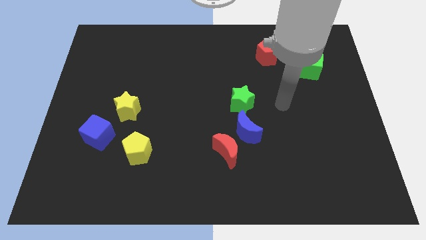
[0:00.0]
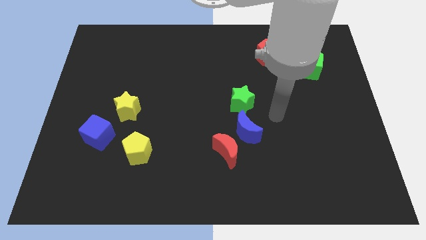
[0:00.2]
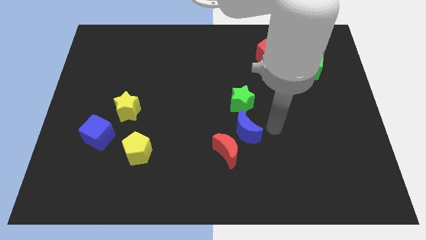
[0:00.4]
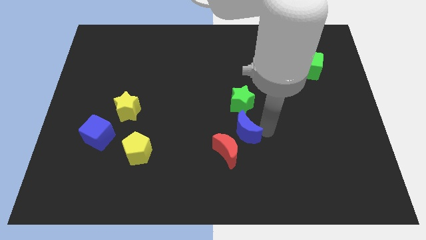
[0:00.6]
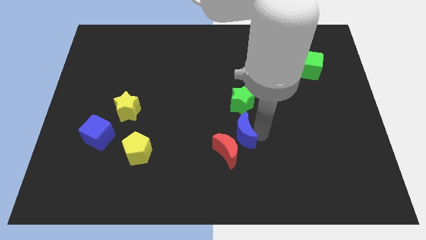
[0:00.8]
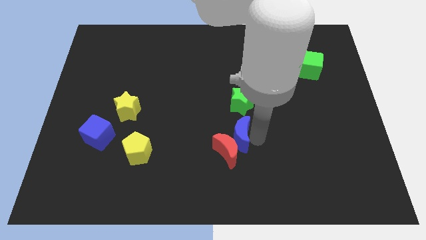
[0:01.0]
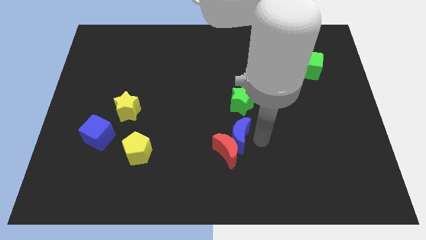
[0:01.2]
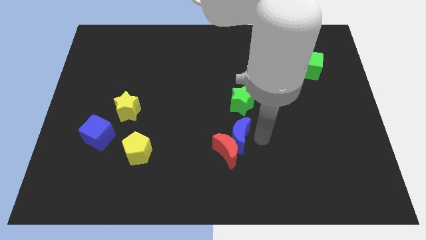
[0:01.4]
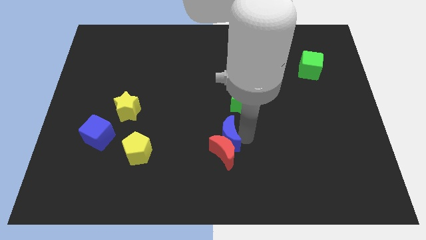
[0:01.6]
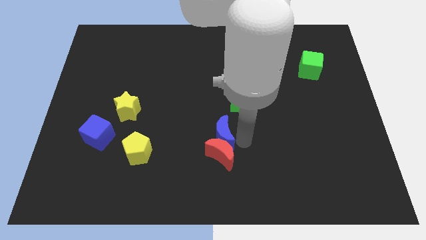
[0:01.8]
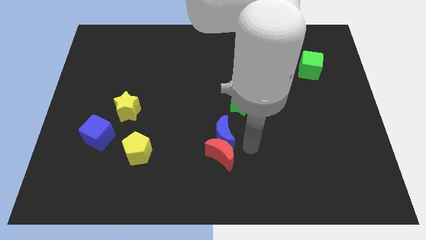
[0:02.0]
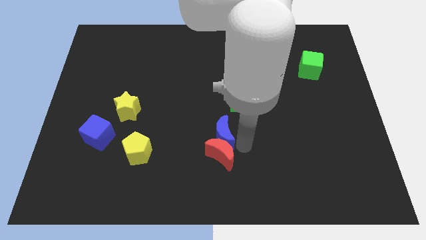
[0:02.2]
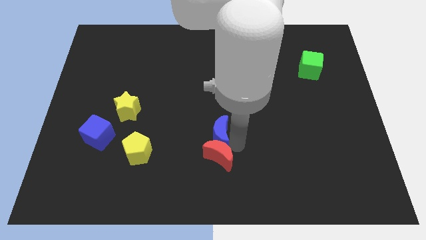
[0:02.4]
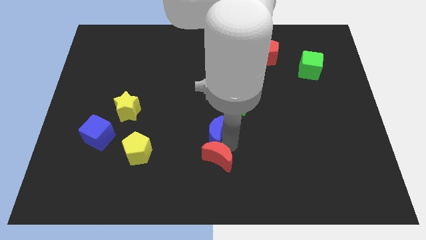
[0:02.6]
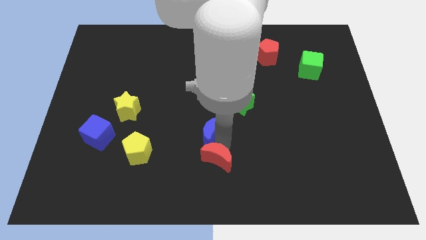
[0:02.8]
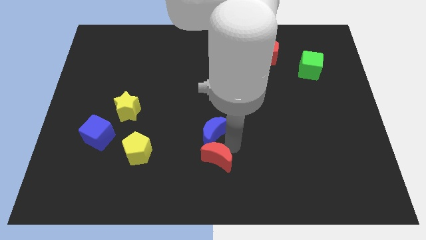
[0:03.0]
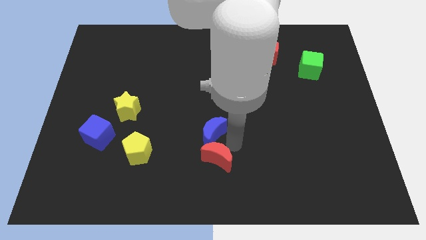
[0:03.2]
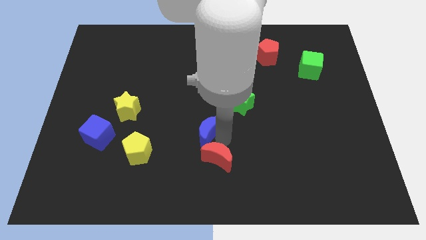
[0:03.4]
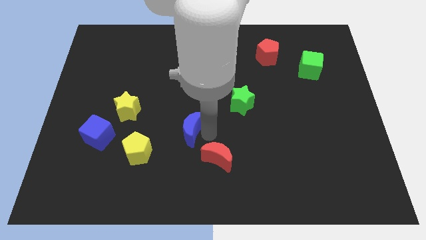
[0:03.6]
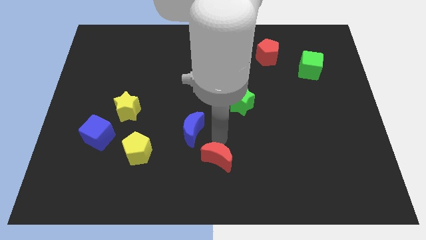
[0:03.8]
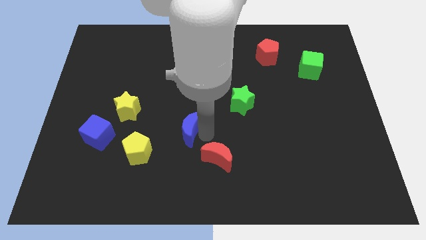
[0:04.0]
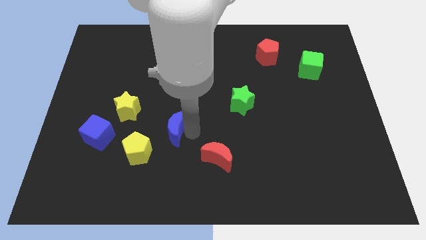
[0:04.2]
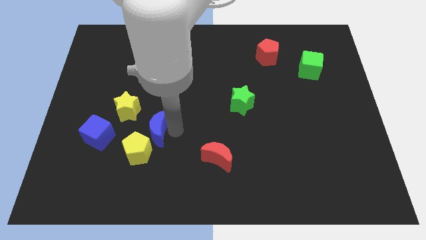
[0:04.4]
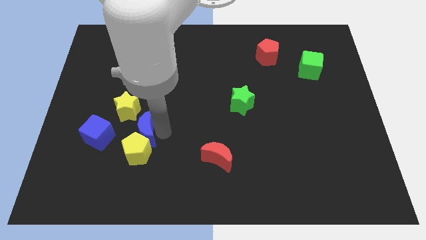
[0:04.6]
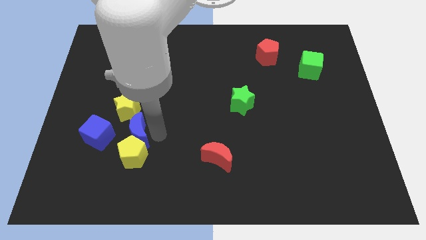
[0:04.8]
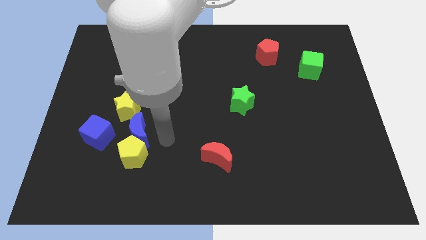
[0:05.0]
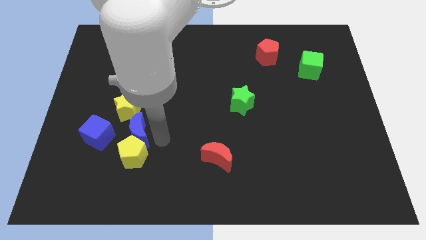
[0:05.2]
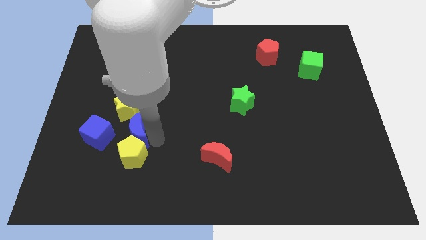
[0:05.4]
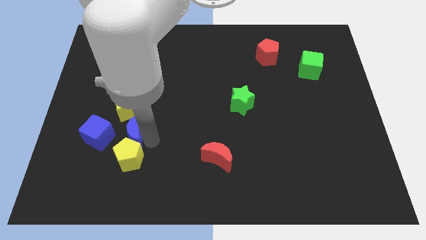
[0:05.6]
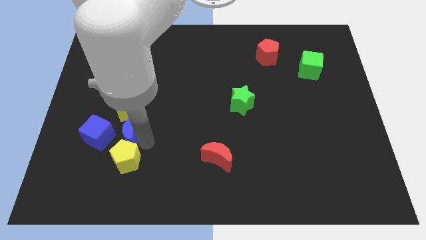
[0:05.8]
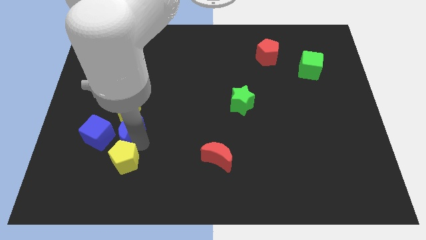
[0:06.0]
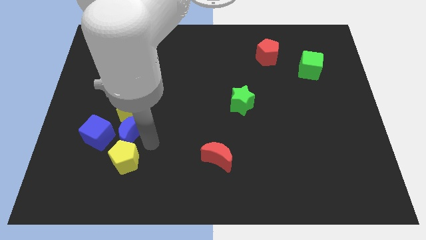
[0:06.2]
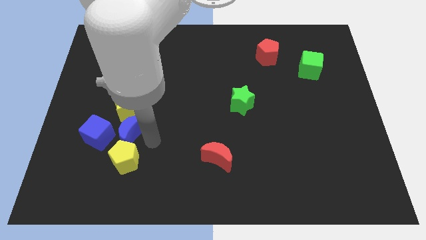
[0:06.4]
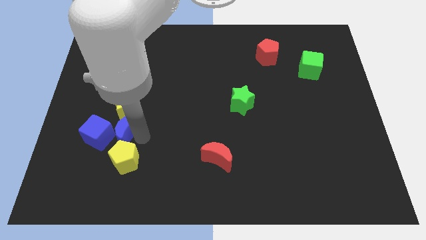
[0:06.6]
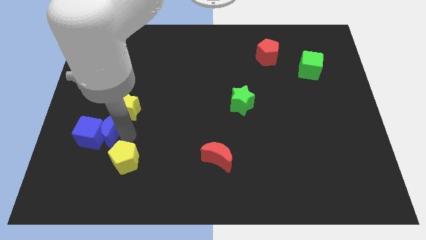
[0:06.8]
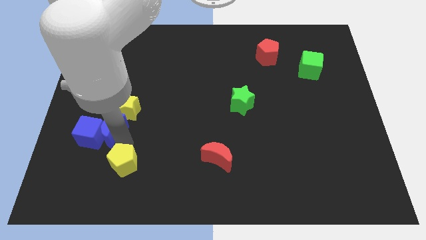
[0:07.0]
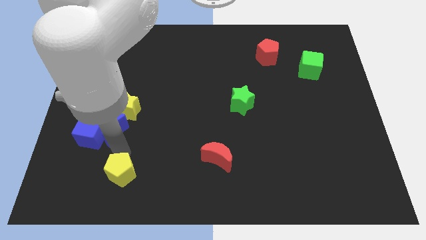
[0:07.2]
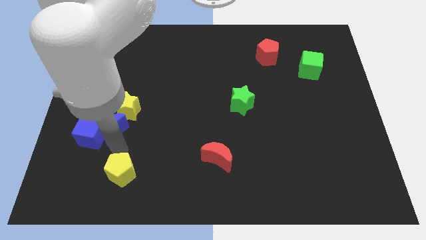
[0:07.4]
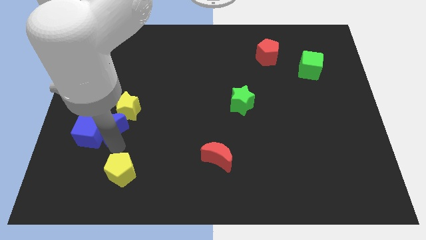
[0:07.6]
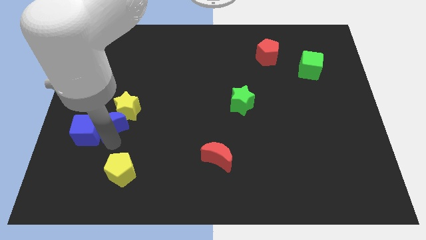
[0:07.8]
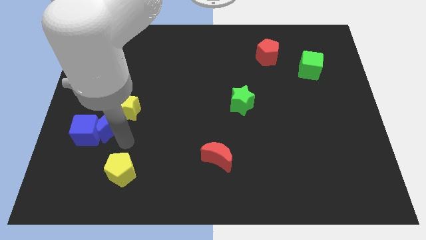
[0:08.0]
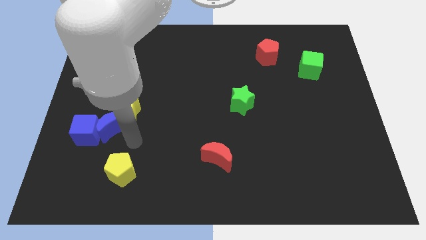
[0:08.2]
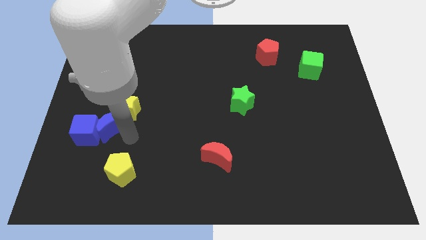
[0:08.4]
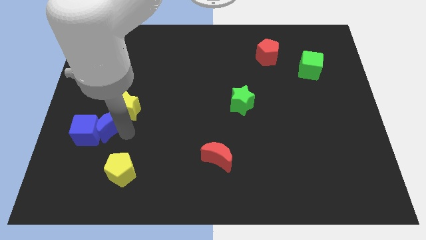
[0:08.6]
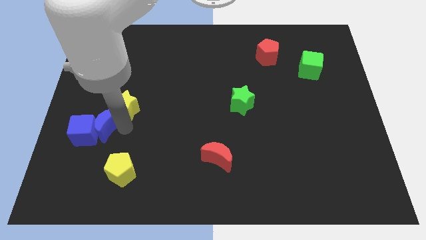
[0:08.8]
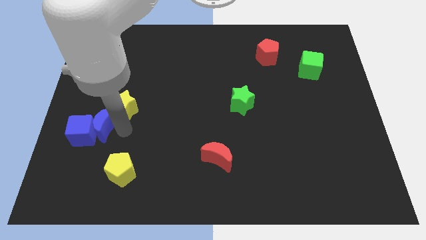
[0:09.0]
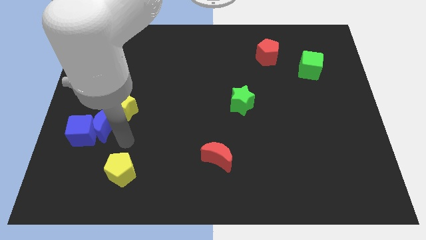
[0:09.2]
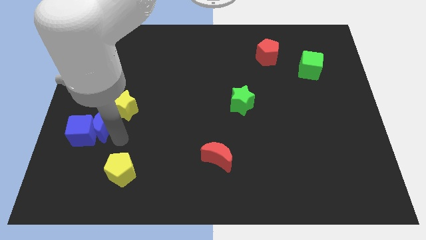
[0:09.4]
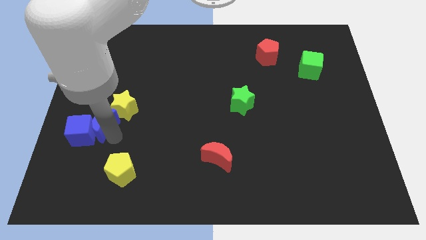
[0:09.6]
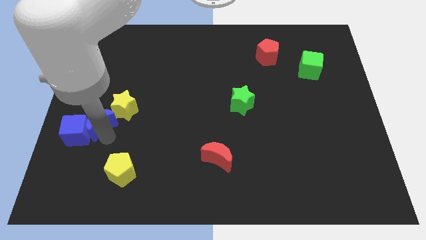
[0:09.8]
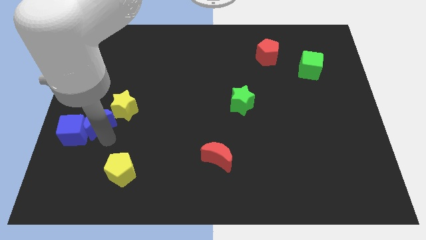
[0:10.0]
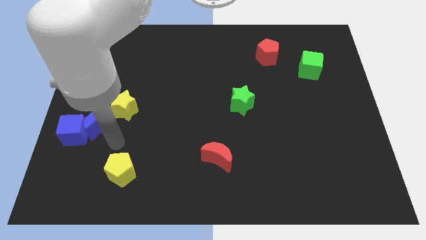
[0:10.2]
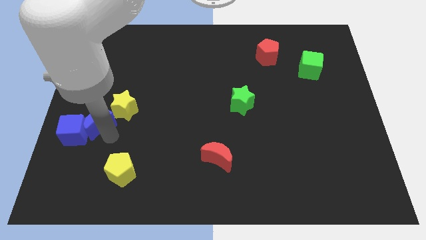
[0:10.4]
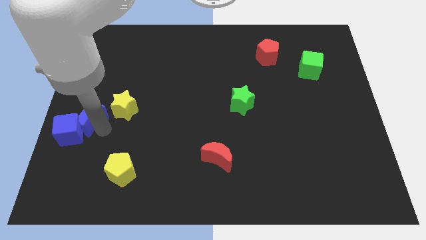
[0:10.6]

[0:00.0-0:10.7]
move the blue moon to the left side

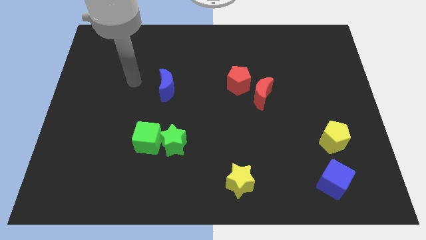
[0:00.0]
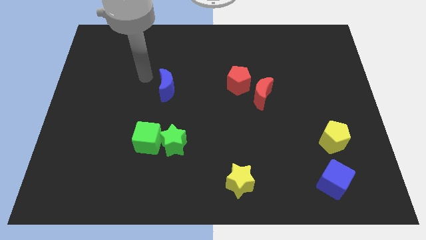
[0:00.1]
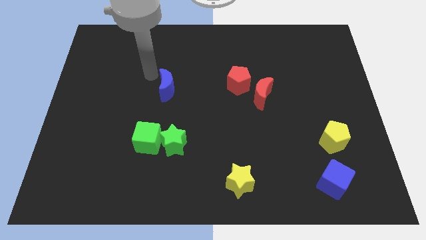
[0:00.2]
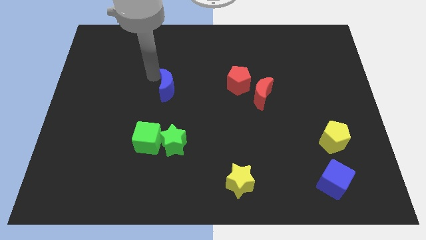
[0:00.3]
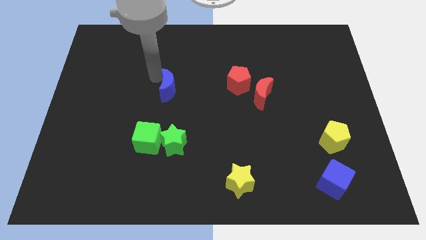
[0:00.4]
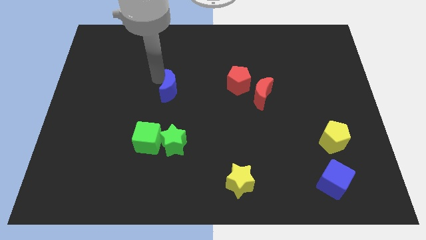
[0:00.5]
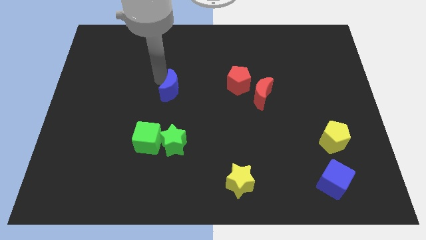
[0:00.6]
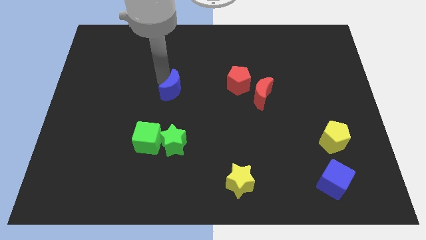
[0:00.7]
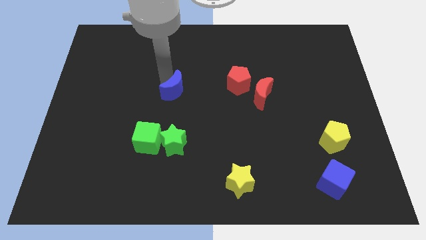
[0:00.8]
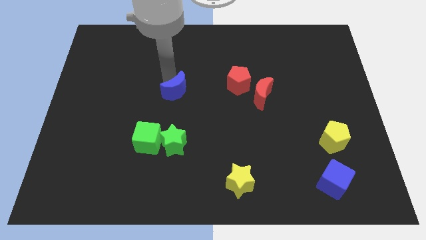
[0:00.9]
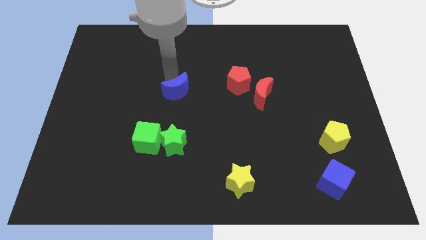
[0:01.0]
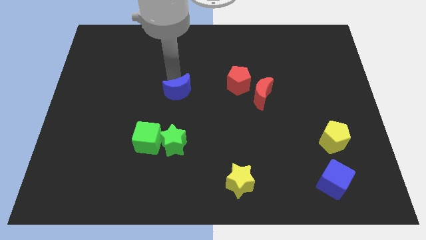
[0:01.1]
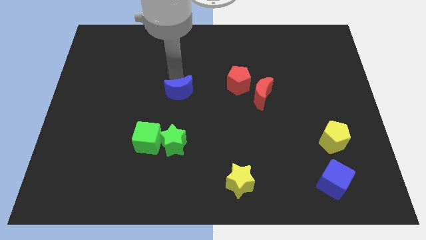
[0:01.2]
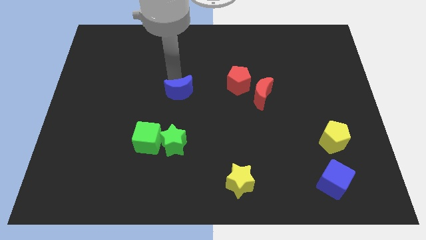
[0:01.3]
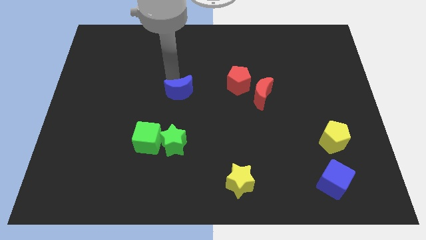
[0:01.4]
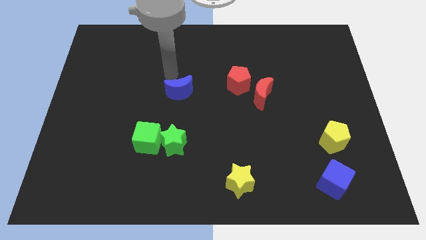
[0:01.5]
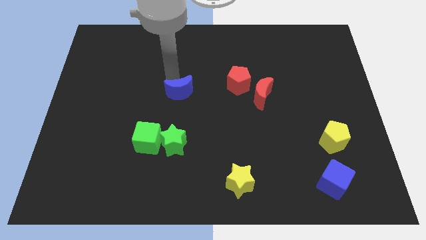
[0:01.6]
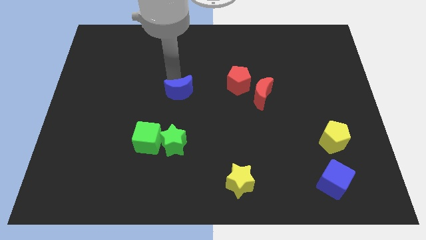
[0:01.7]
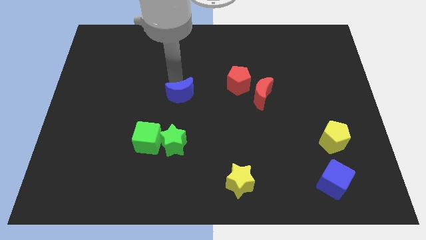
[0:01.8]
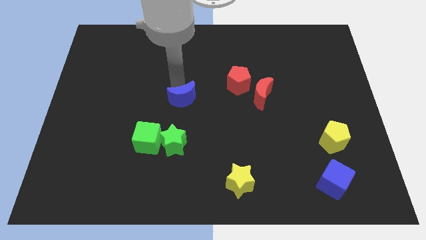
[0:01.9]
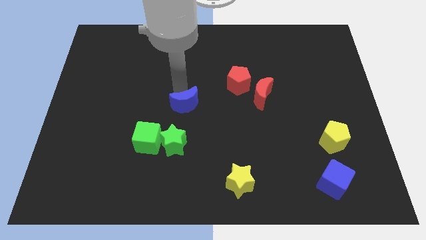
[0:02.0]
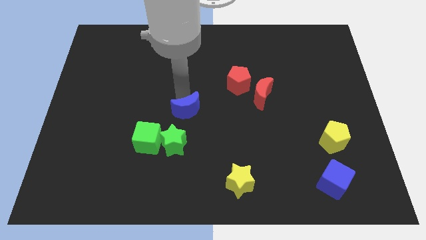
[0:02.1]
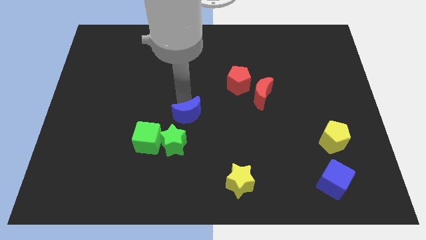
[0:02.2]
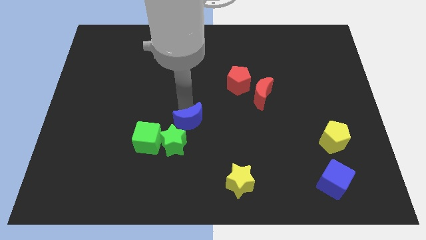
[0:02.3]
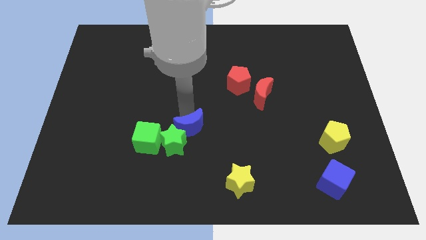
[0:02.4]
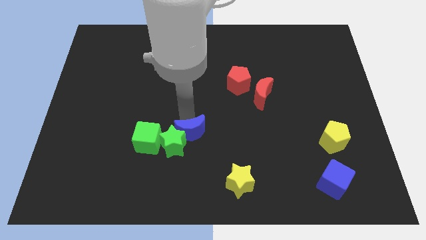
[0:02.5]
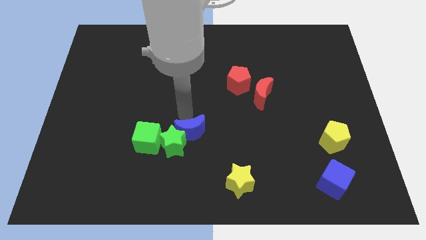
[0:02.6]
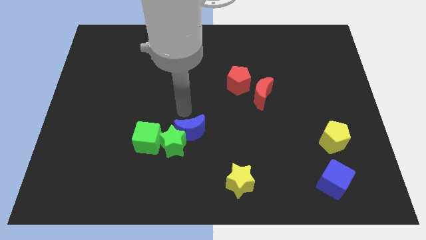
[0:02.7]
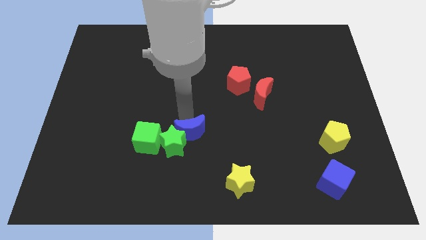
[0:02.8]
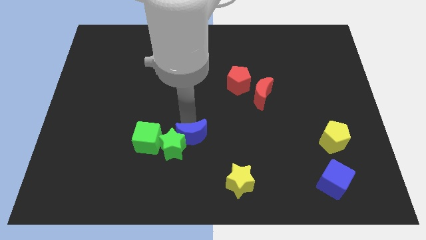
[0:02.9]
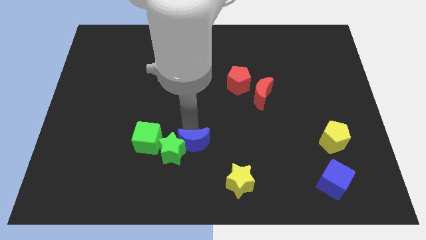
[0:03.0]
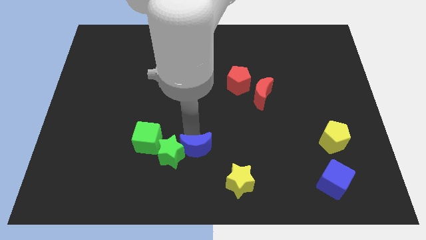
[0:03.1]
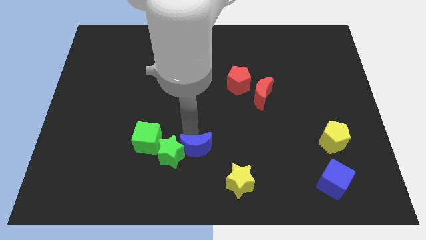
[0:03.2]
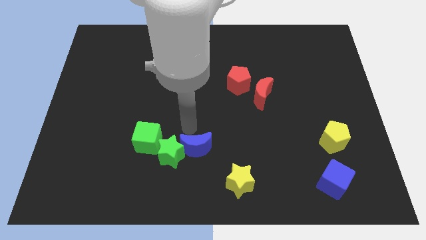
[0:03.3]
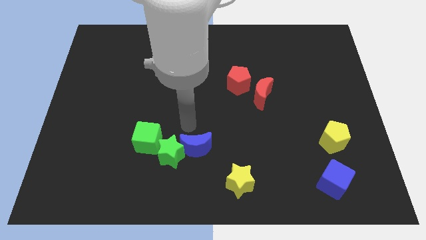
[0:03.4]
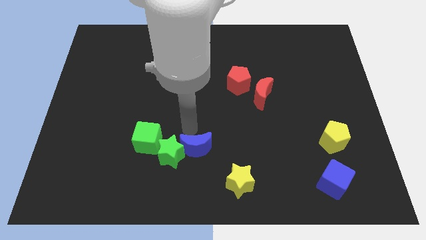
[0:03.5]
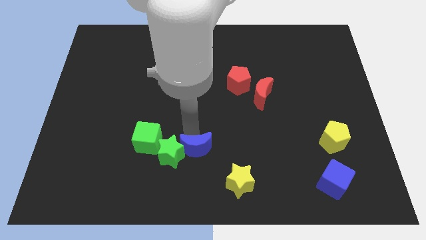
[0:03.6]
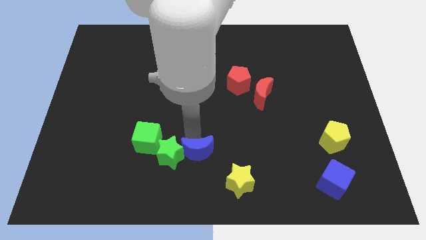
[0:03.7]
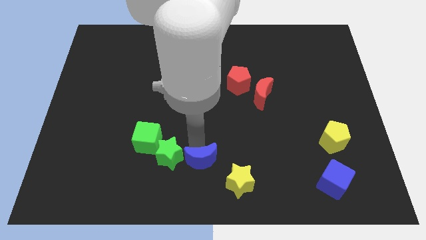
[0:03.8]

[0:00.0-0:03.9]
move the blue moon to the bottom side
